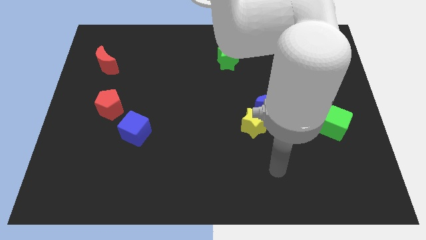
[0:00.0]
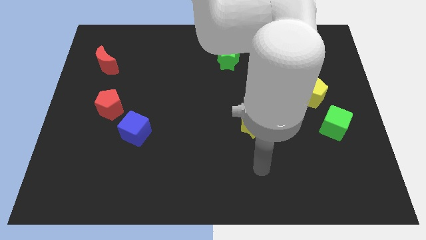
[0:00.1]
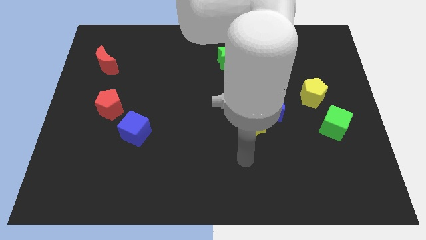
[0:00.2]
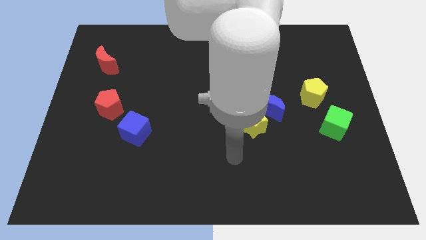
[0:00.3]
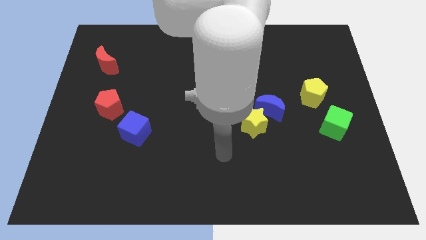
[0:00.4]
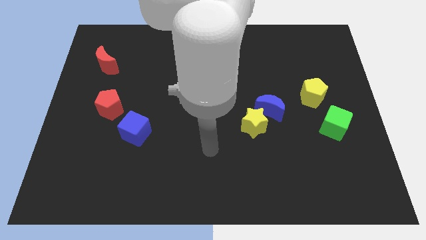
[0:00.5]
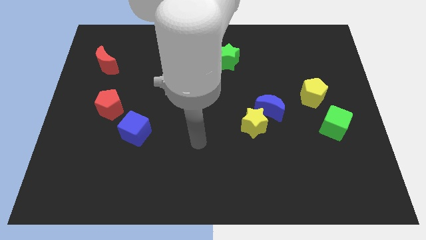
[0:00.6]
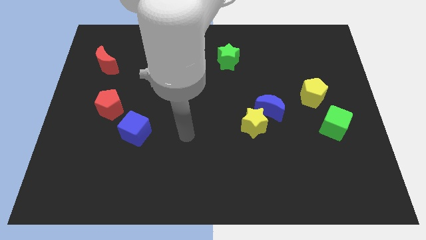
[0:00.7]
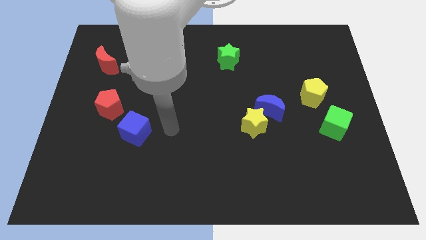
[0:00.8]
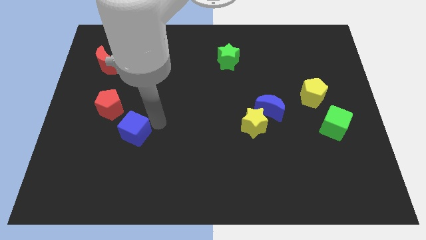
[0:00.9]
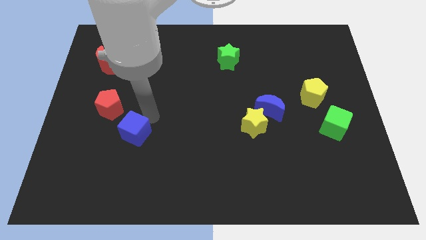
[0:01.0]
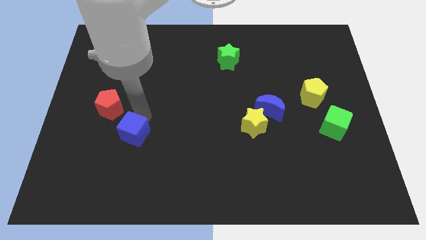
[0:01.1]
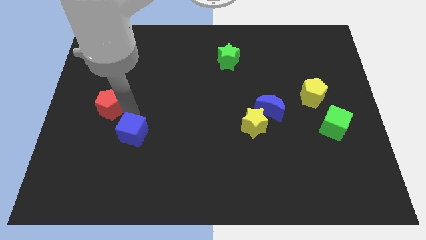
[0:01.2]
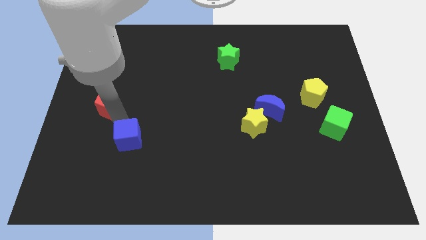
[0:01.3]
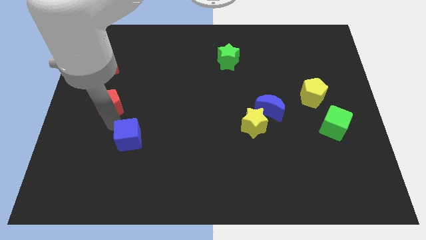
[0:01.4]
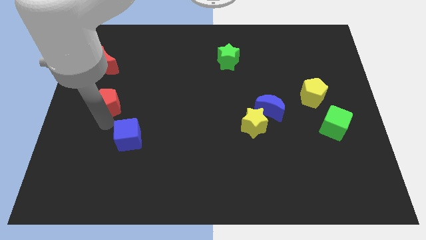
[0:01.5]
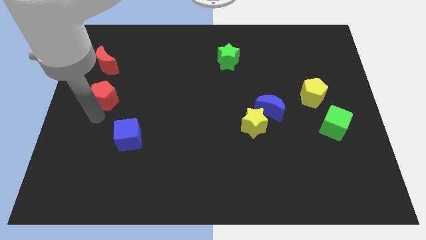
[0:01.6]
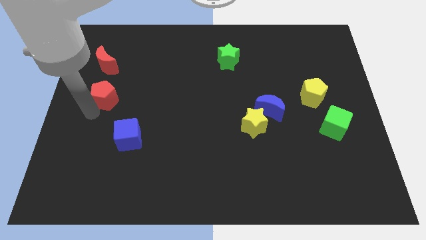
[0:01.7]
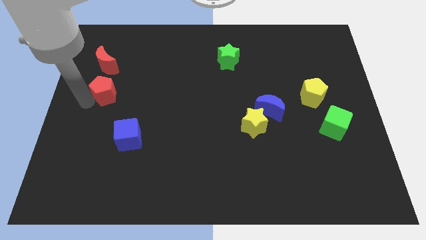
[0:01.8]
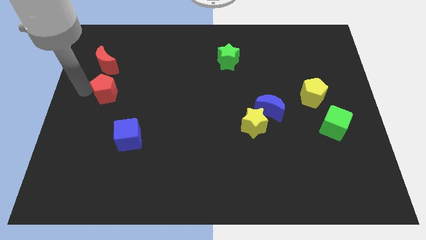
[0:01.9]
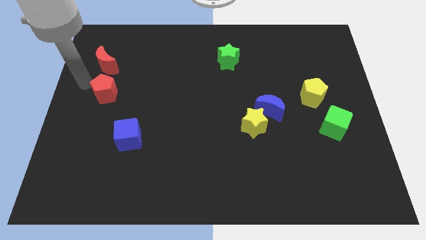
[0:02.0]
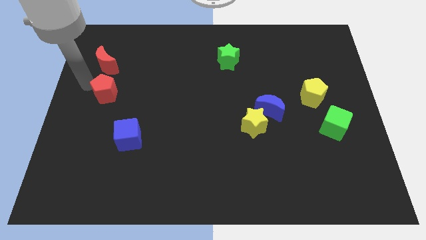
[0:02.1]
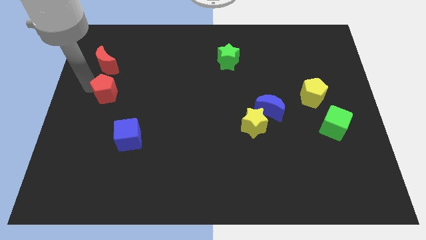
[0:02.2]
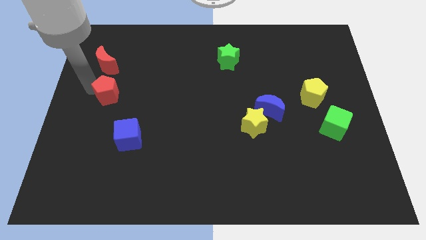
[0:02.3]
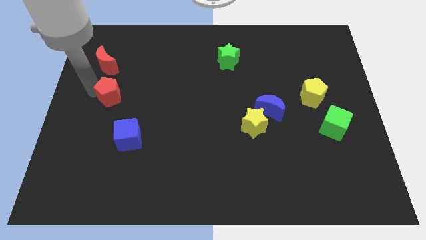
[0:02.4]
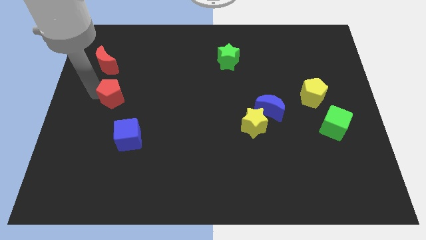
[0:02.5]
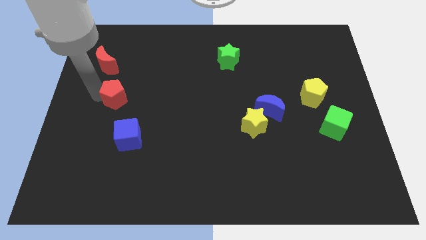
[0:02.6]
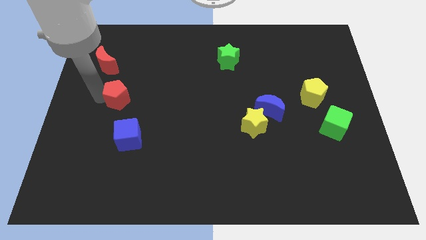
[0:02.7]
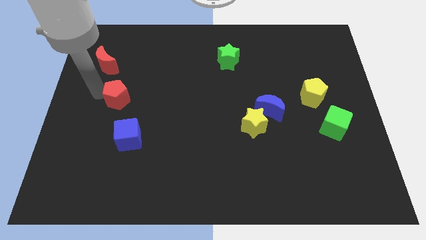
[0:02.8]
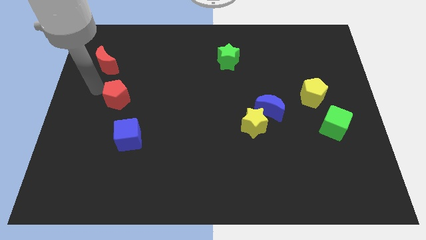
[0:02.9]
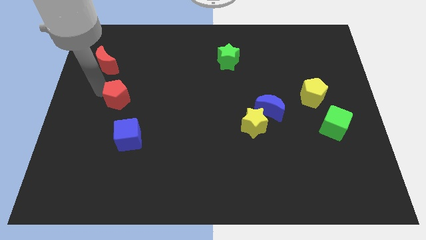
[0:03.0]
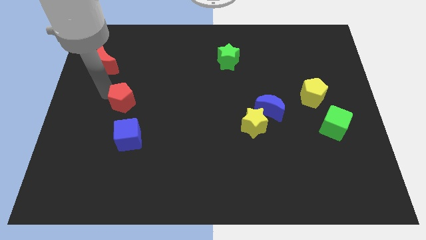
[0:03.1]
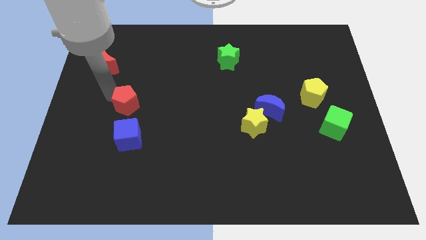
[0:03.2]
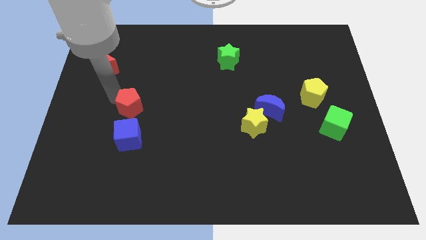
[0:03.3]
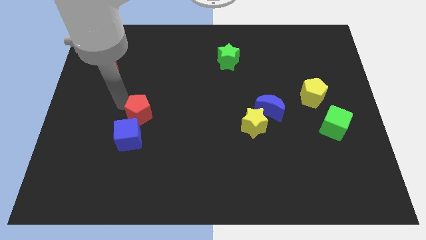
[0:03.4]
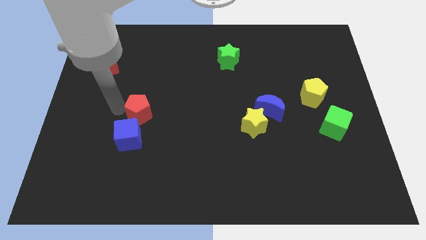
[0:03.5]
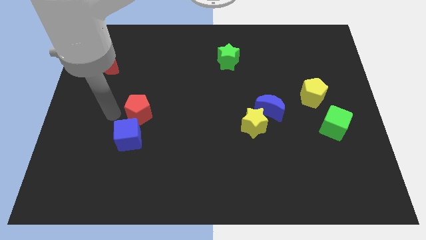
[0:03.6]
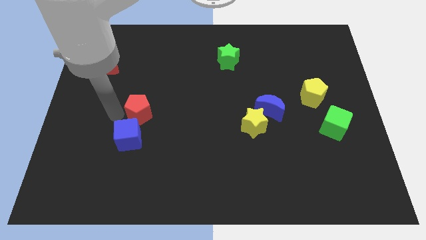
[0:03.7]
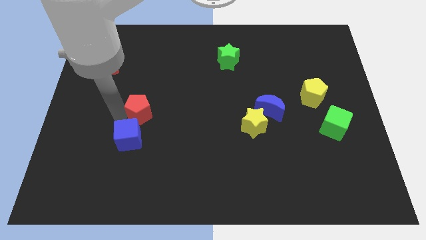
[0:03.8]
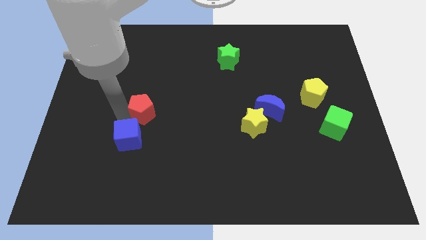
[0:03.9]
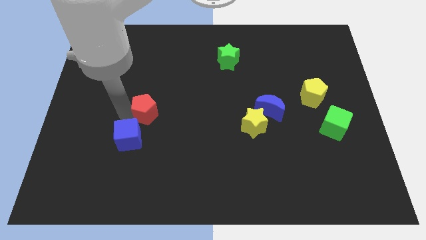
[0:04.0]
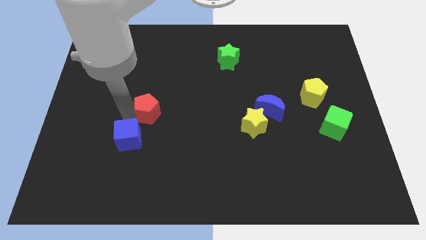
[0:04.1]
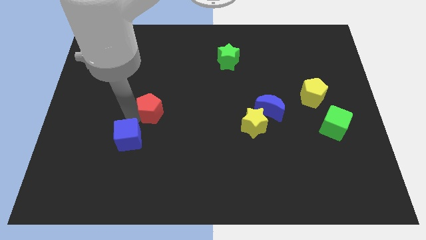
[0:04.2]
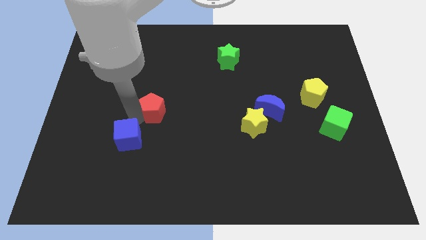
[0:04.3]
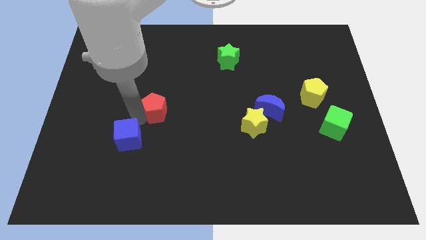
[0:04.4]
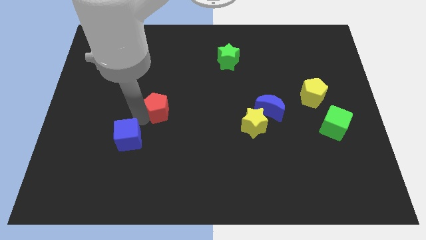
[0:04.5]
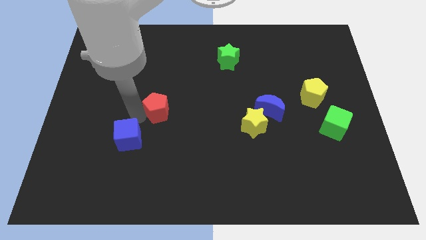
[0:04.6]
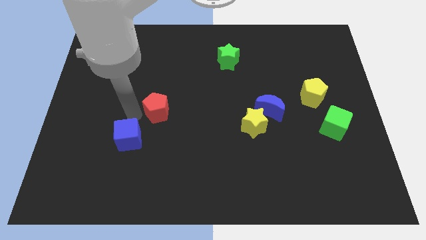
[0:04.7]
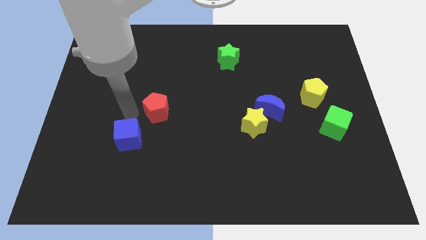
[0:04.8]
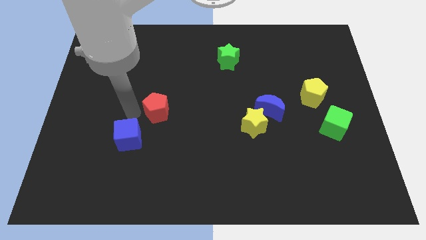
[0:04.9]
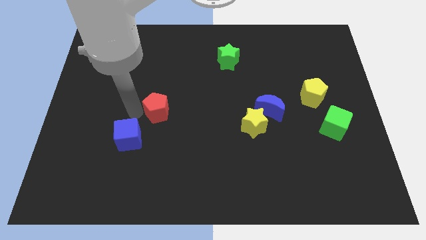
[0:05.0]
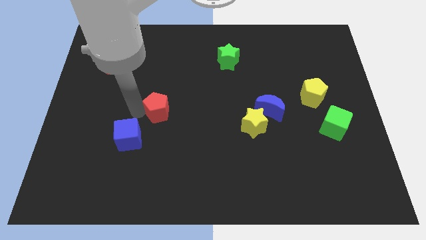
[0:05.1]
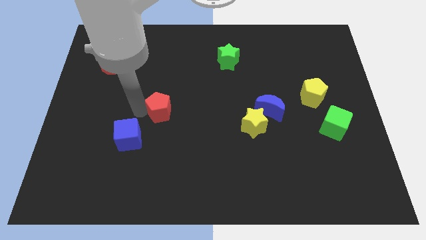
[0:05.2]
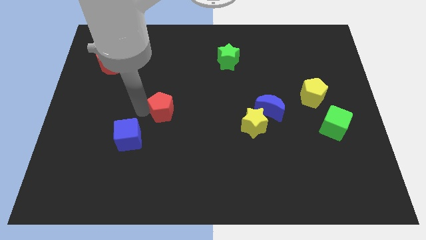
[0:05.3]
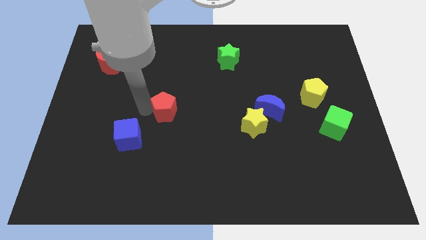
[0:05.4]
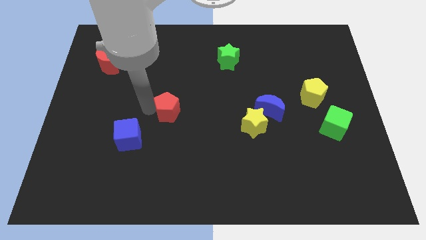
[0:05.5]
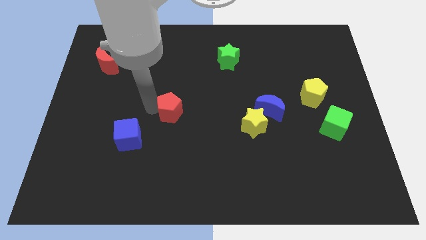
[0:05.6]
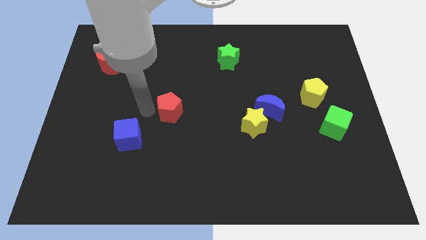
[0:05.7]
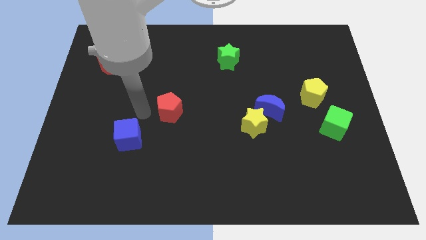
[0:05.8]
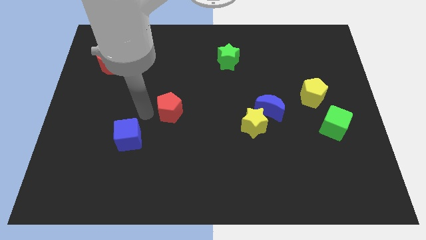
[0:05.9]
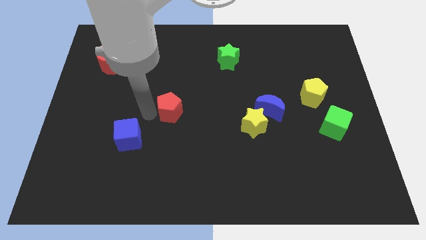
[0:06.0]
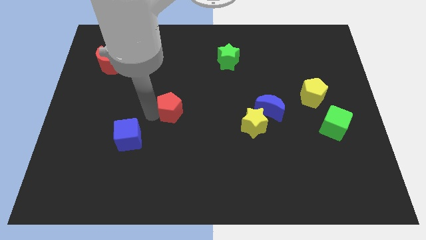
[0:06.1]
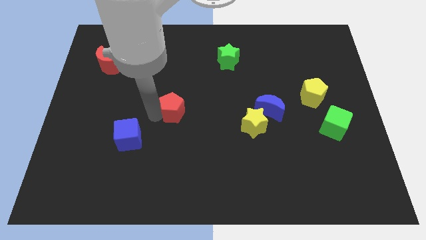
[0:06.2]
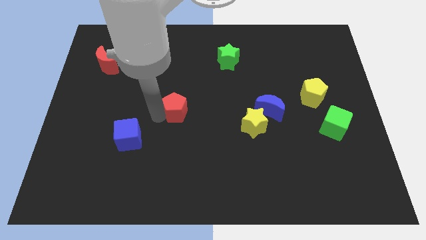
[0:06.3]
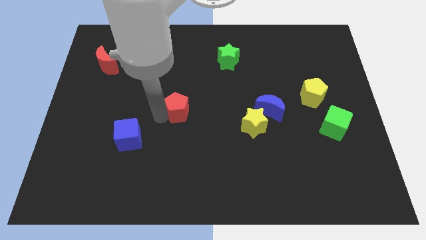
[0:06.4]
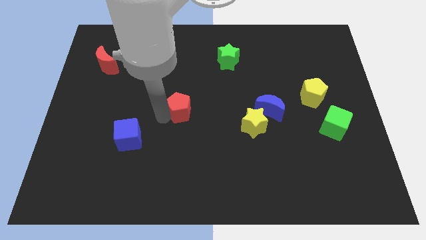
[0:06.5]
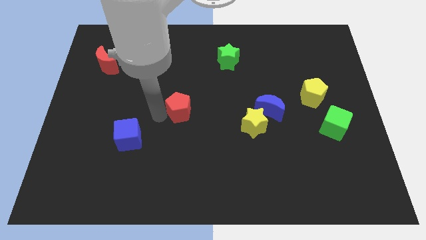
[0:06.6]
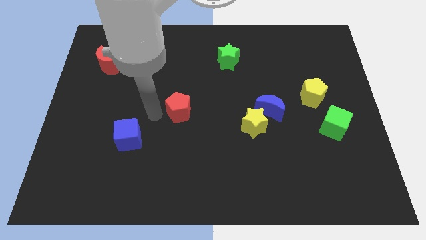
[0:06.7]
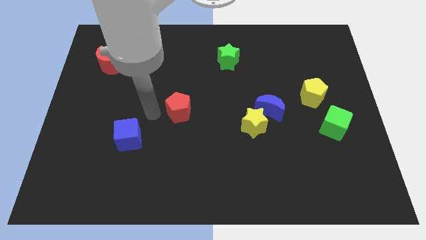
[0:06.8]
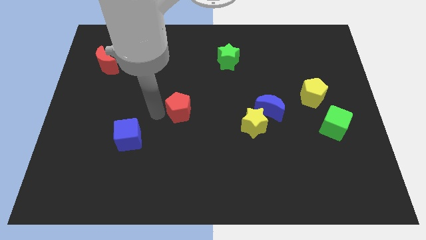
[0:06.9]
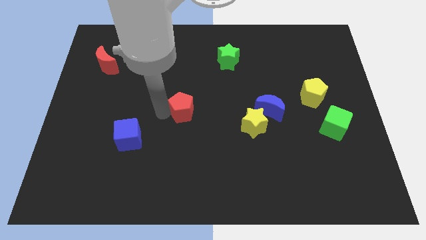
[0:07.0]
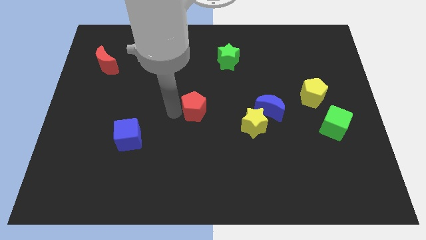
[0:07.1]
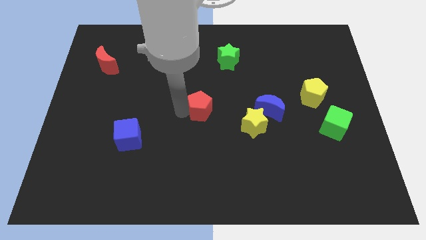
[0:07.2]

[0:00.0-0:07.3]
push the red pentagon to the right

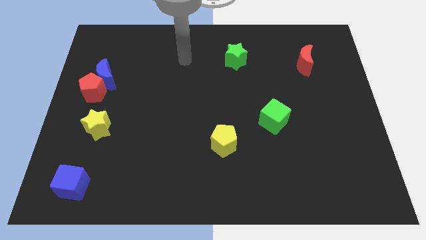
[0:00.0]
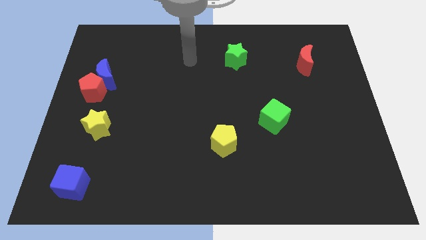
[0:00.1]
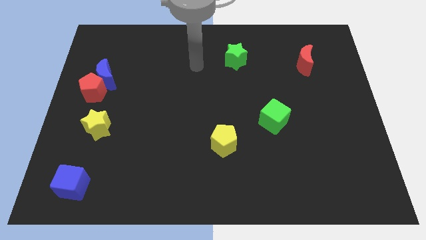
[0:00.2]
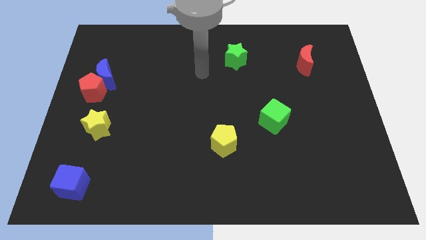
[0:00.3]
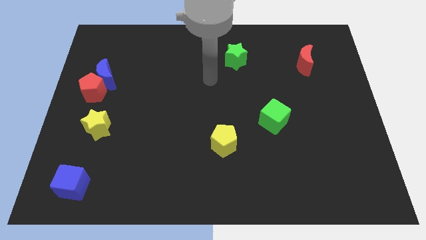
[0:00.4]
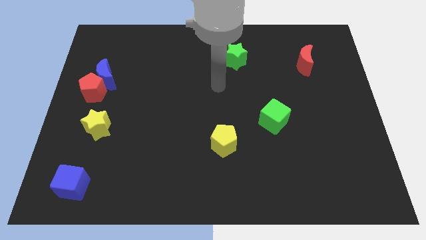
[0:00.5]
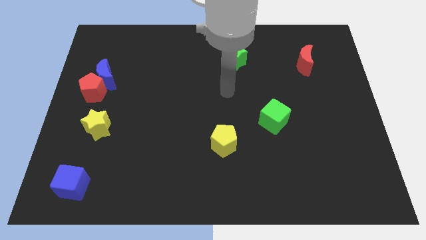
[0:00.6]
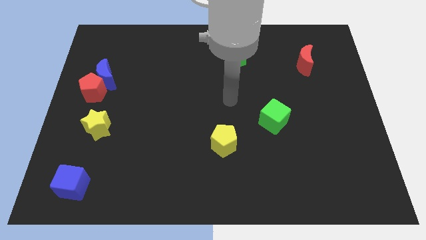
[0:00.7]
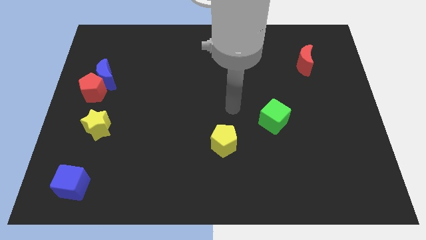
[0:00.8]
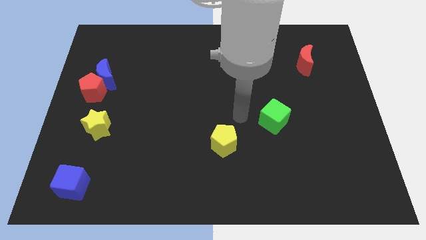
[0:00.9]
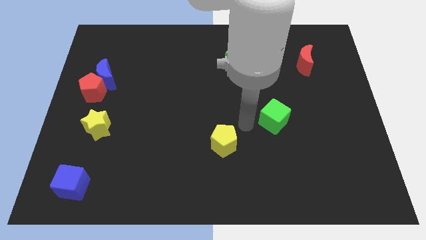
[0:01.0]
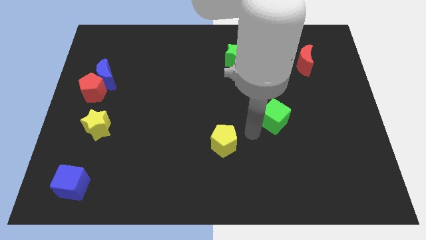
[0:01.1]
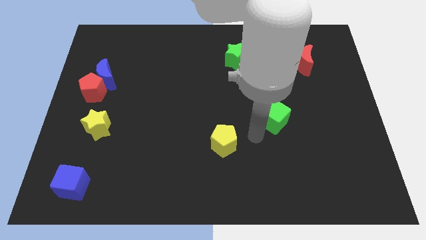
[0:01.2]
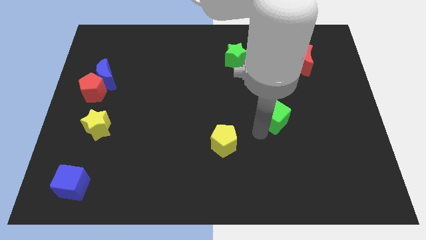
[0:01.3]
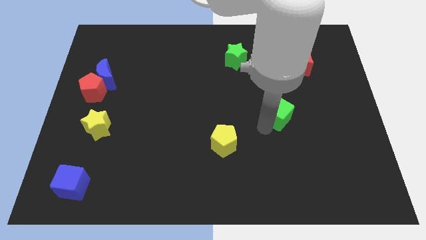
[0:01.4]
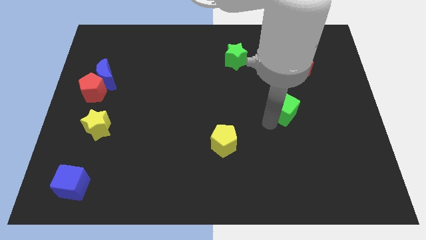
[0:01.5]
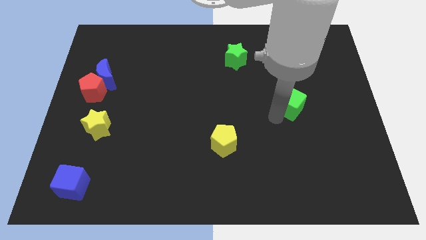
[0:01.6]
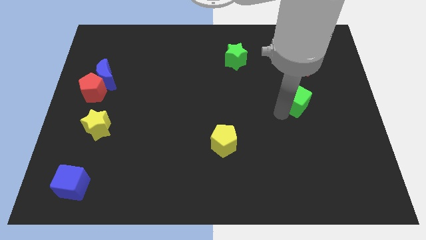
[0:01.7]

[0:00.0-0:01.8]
move the green cube a bit up and to the right
